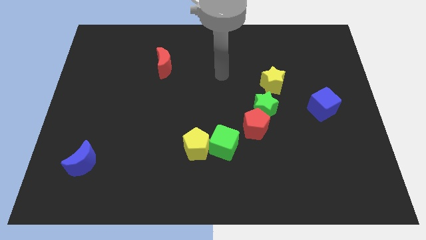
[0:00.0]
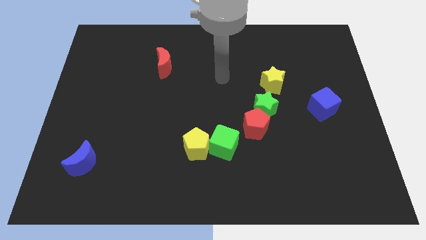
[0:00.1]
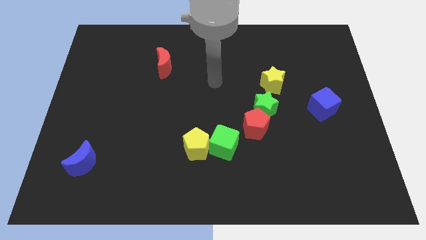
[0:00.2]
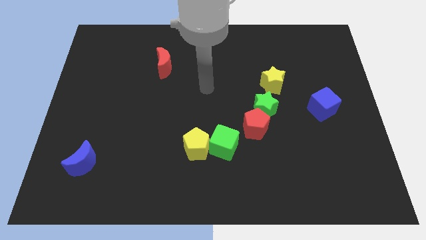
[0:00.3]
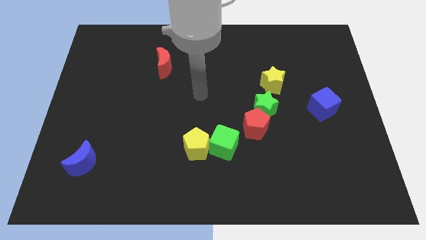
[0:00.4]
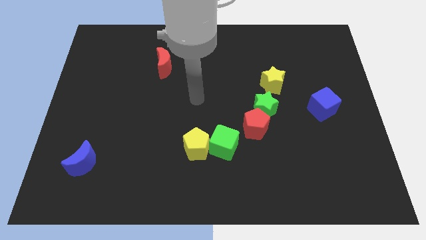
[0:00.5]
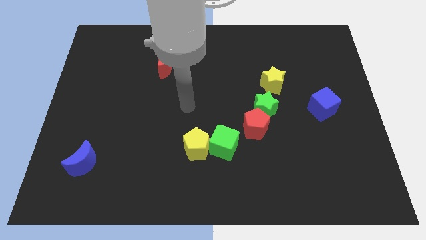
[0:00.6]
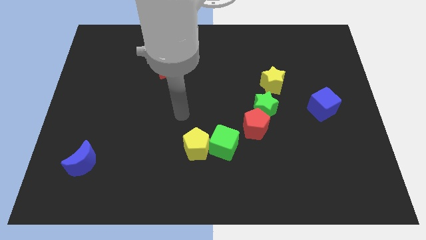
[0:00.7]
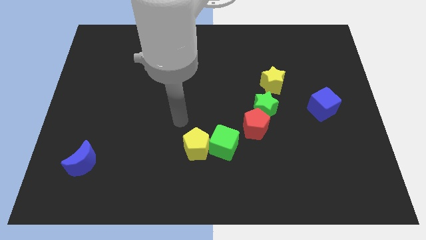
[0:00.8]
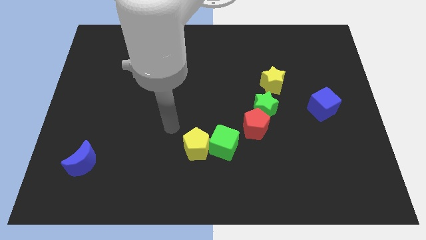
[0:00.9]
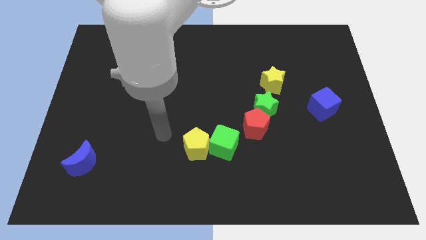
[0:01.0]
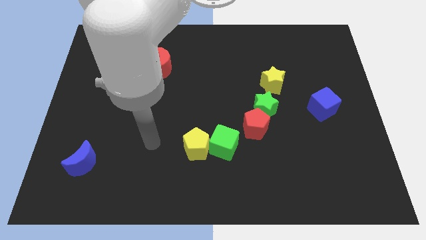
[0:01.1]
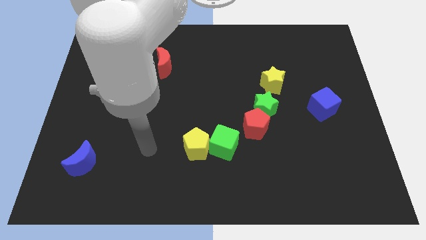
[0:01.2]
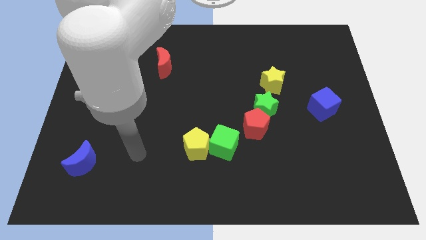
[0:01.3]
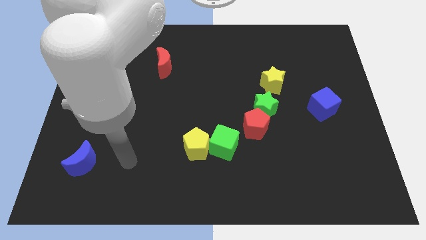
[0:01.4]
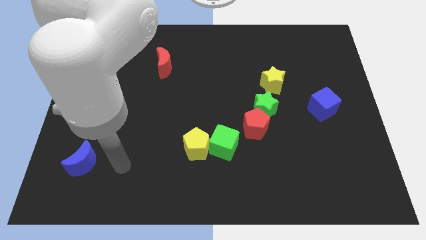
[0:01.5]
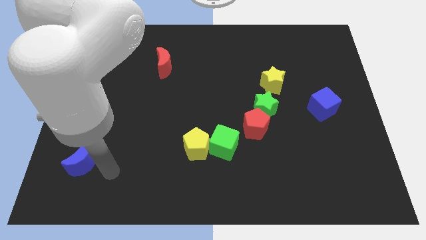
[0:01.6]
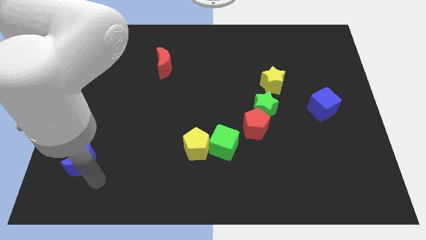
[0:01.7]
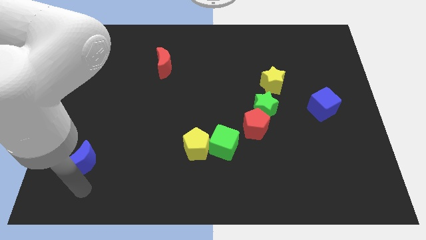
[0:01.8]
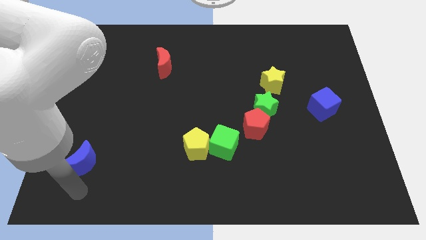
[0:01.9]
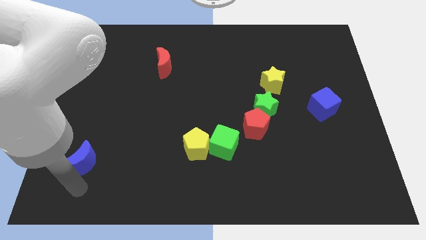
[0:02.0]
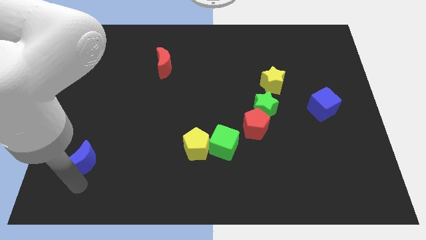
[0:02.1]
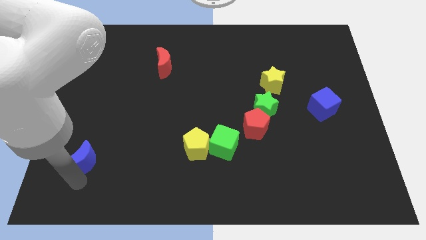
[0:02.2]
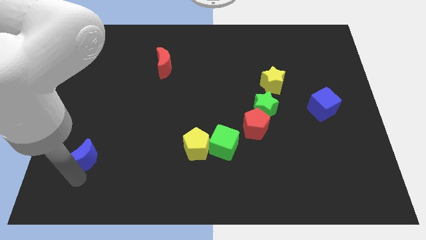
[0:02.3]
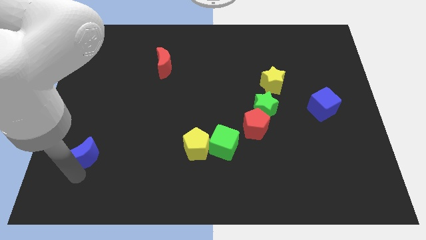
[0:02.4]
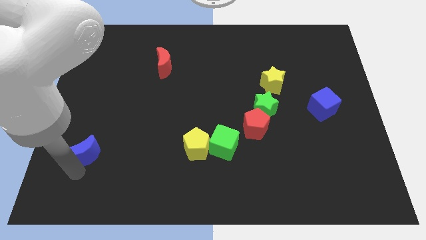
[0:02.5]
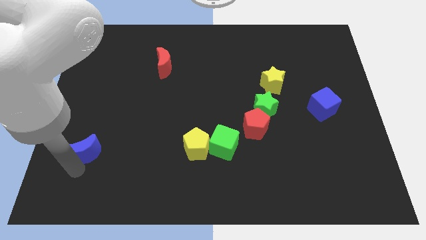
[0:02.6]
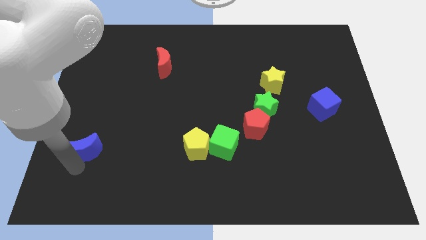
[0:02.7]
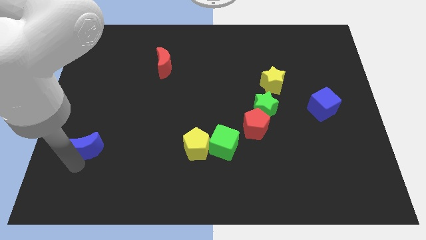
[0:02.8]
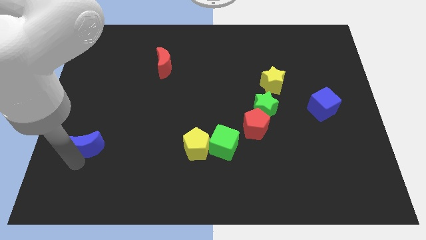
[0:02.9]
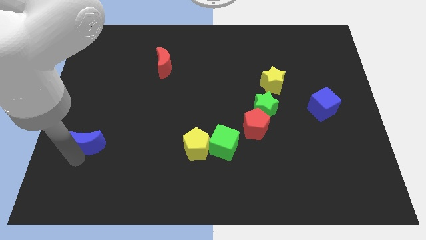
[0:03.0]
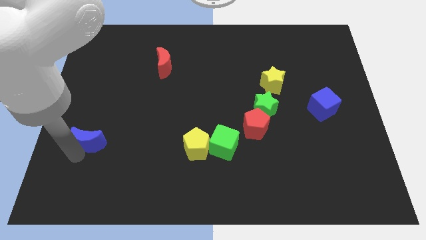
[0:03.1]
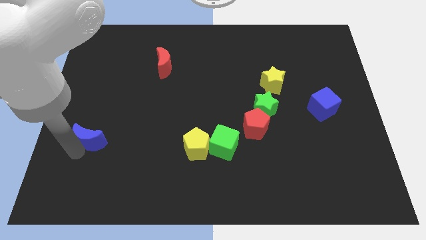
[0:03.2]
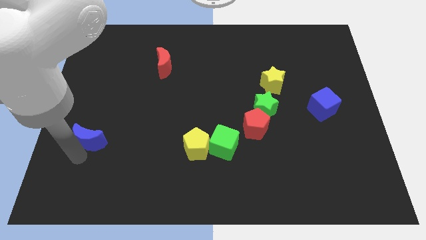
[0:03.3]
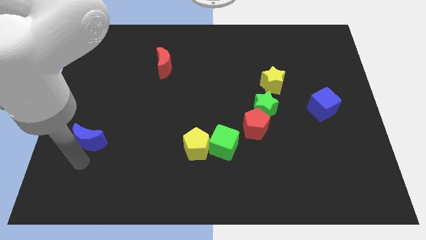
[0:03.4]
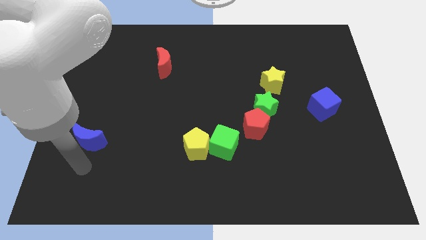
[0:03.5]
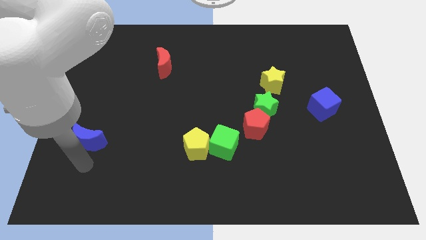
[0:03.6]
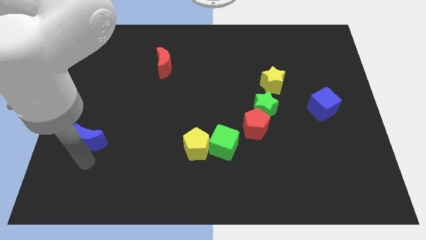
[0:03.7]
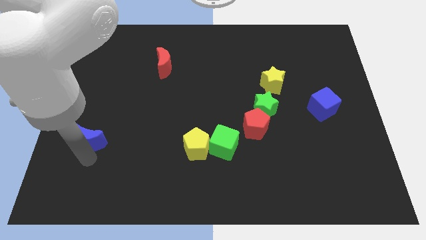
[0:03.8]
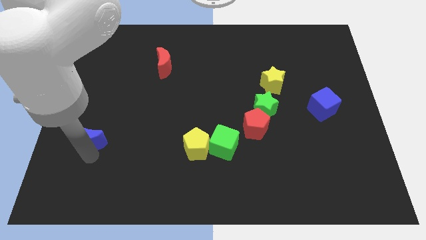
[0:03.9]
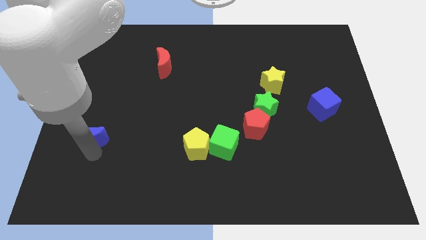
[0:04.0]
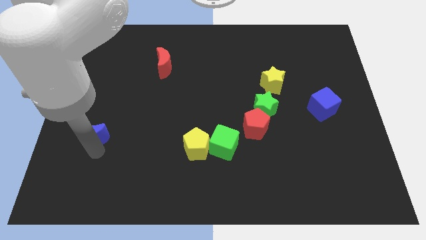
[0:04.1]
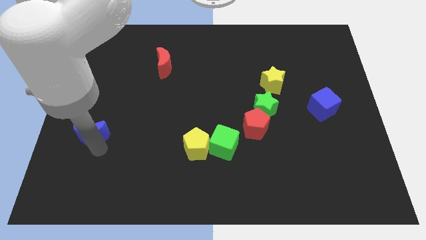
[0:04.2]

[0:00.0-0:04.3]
move the blue moon a bit up

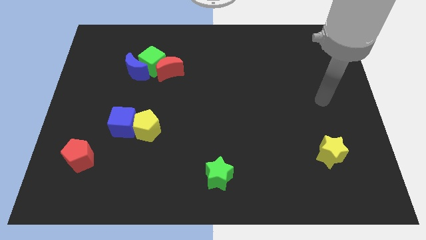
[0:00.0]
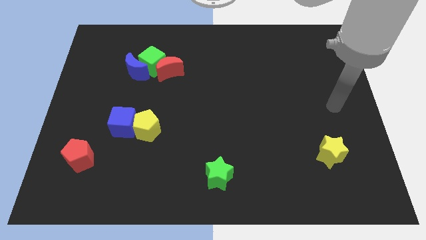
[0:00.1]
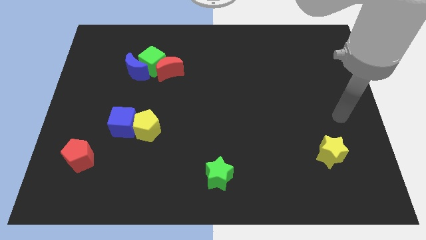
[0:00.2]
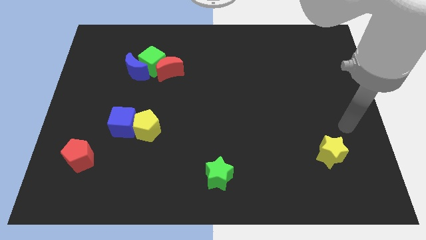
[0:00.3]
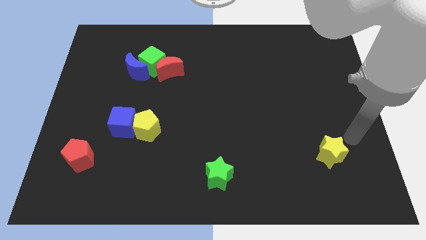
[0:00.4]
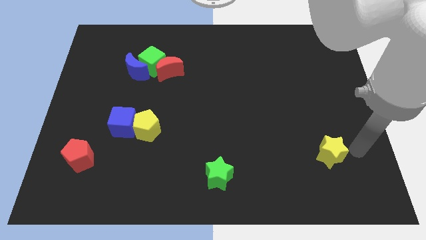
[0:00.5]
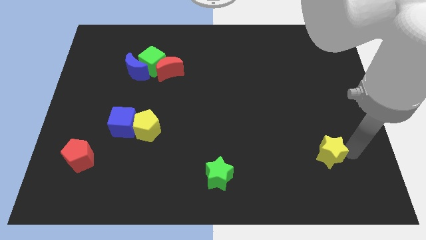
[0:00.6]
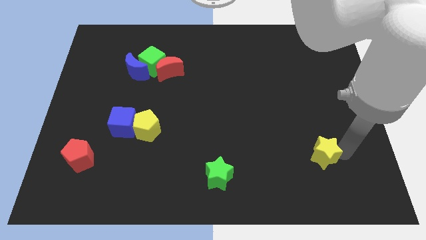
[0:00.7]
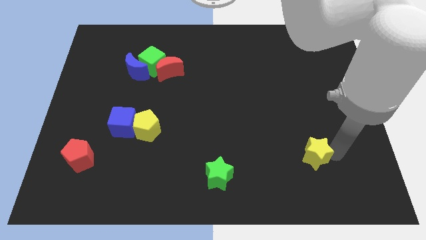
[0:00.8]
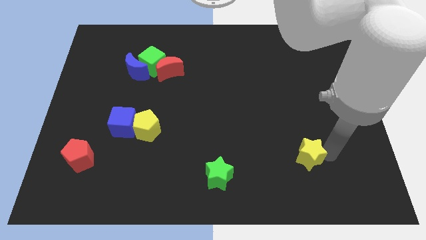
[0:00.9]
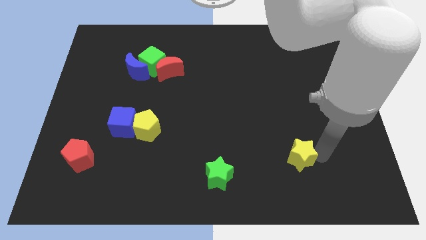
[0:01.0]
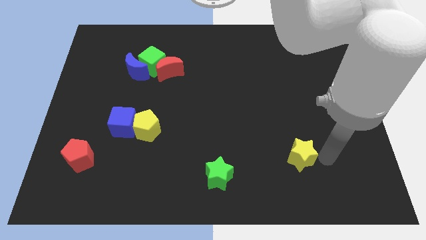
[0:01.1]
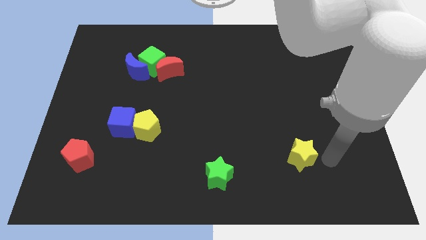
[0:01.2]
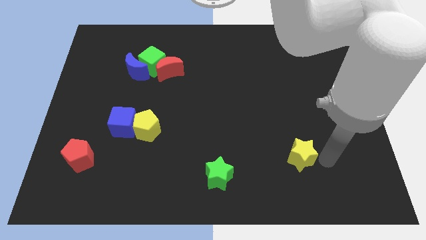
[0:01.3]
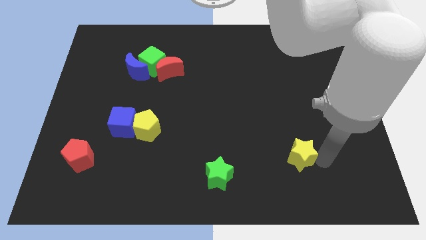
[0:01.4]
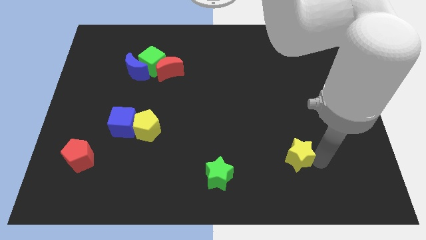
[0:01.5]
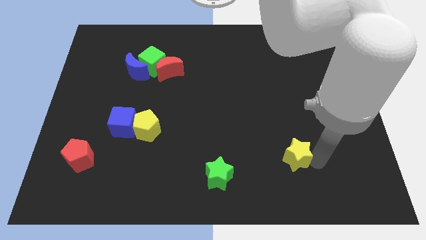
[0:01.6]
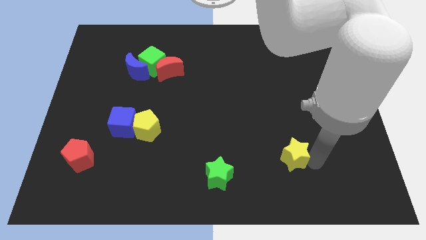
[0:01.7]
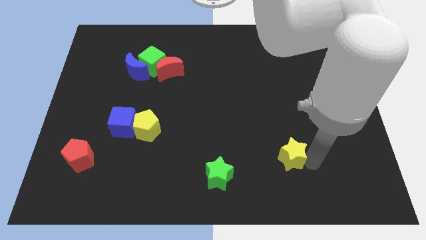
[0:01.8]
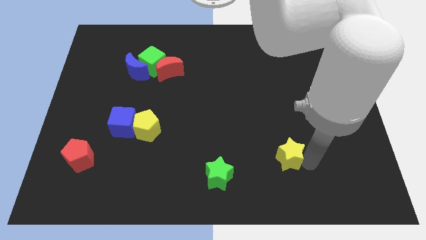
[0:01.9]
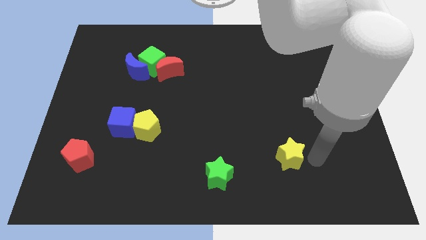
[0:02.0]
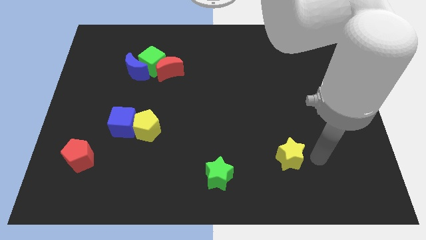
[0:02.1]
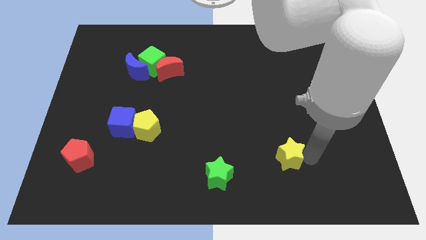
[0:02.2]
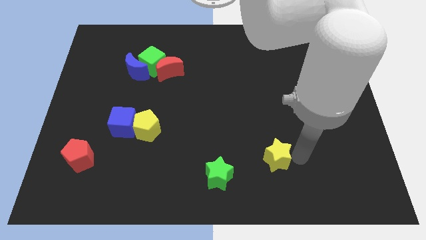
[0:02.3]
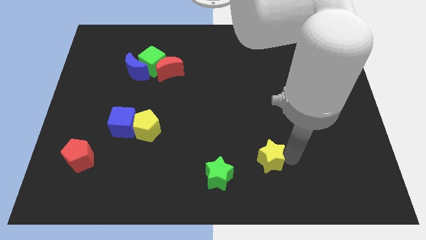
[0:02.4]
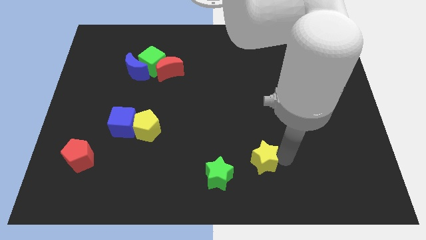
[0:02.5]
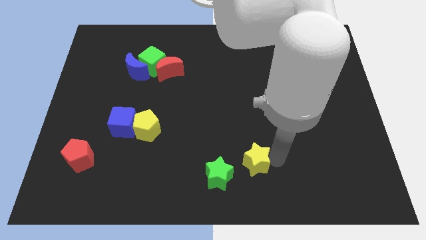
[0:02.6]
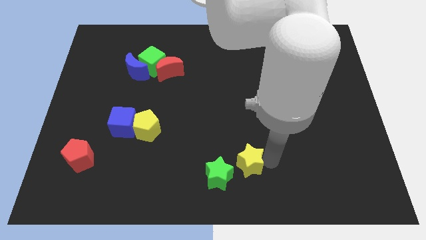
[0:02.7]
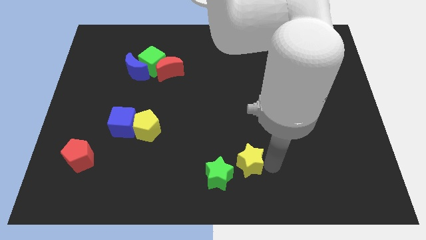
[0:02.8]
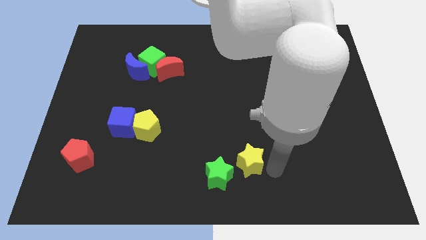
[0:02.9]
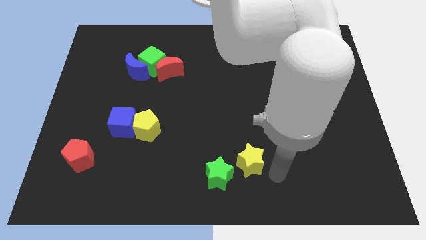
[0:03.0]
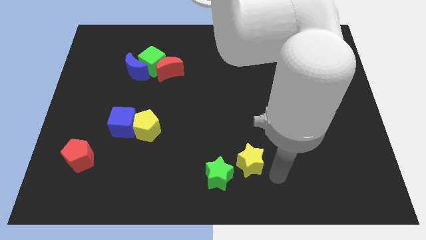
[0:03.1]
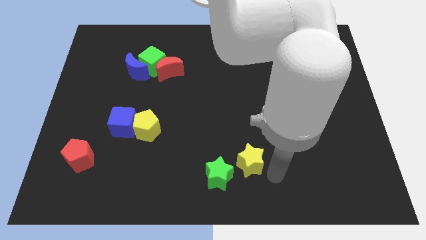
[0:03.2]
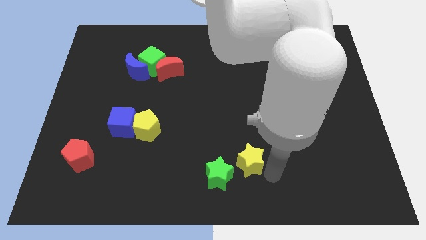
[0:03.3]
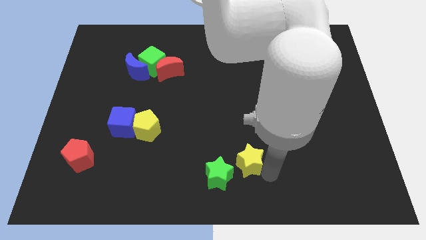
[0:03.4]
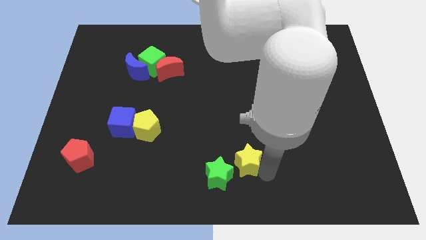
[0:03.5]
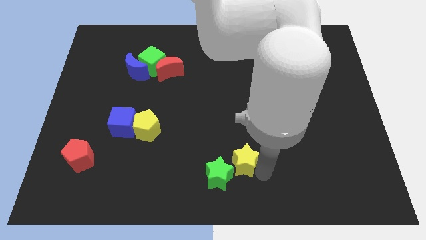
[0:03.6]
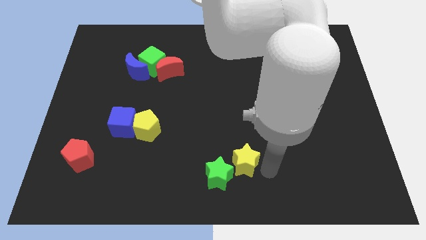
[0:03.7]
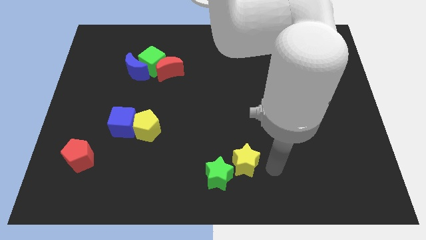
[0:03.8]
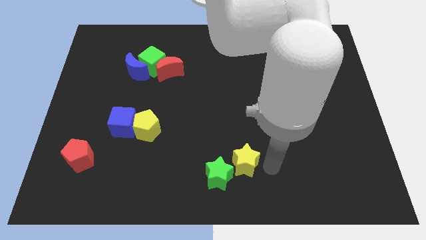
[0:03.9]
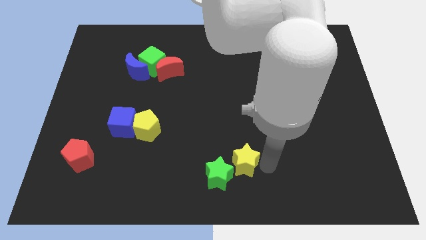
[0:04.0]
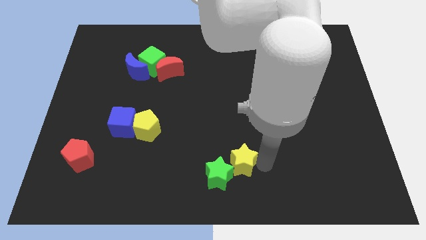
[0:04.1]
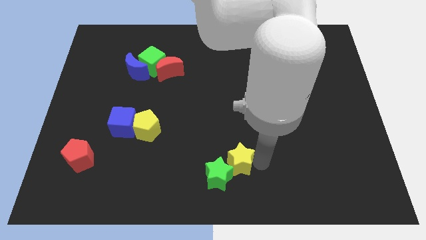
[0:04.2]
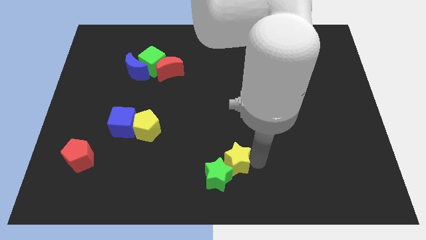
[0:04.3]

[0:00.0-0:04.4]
slide the yellow star to the left
